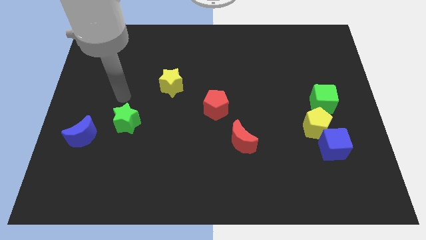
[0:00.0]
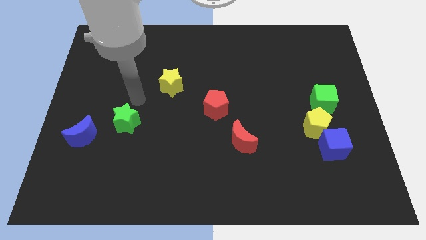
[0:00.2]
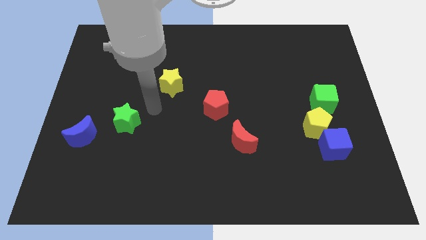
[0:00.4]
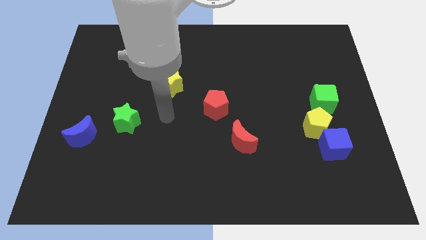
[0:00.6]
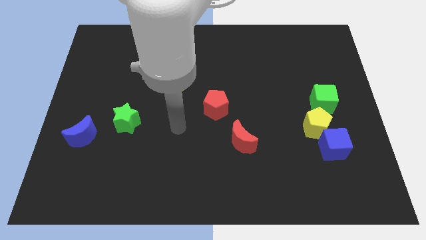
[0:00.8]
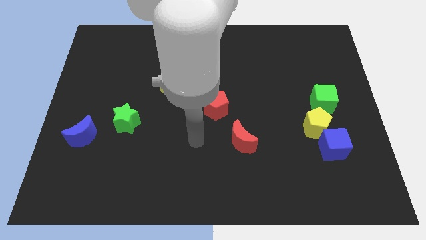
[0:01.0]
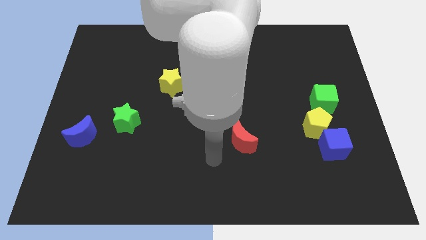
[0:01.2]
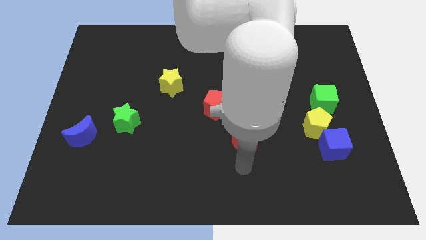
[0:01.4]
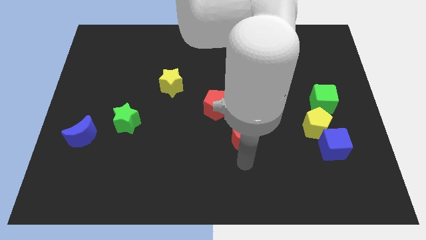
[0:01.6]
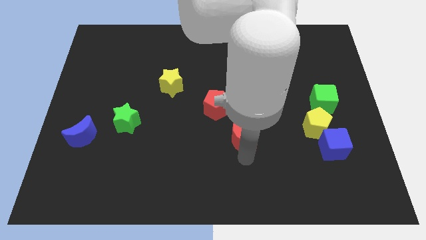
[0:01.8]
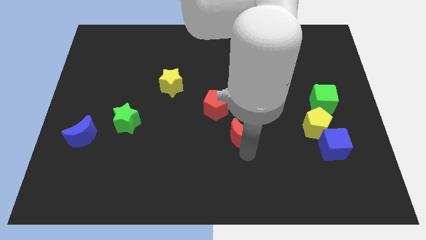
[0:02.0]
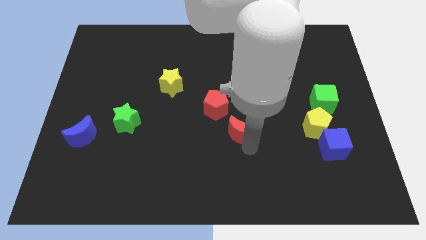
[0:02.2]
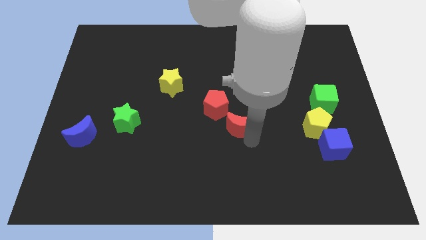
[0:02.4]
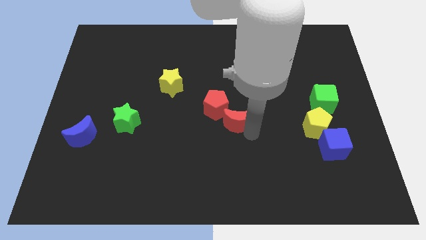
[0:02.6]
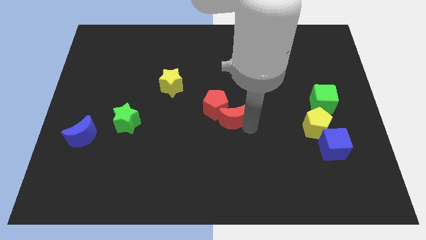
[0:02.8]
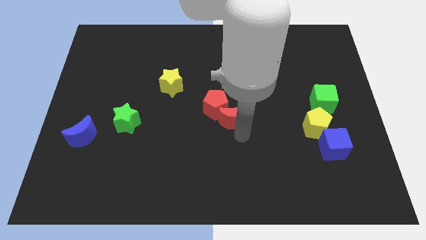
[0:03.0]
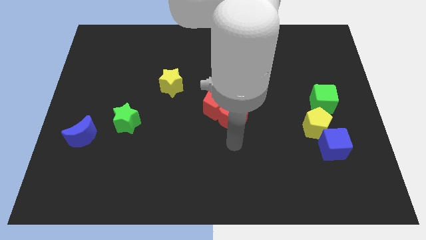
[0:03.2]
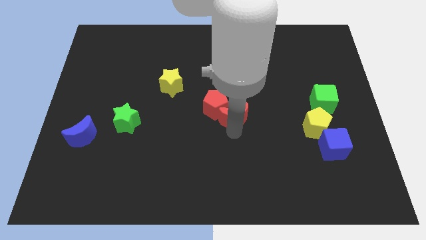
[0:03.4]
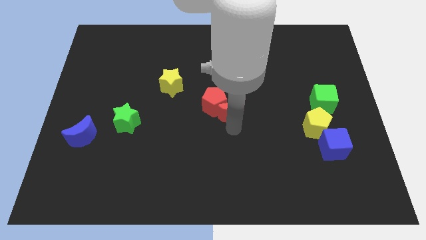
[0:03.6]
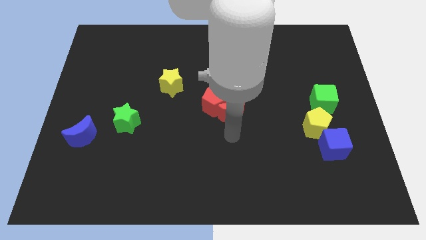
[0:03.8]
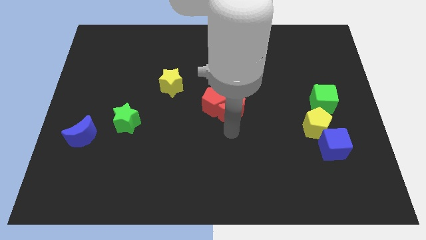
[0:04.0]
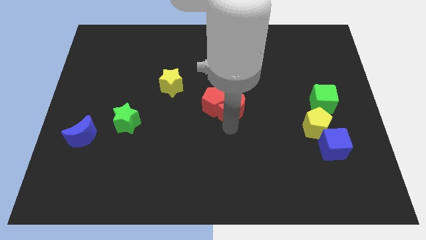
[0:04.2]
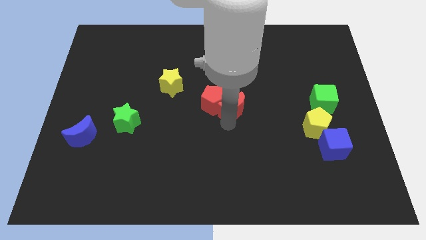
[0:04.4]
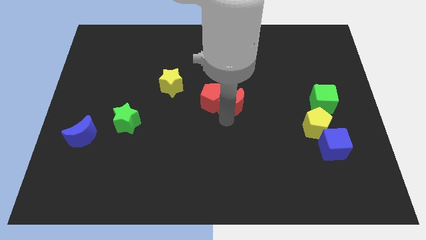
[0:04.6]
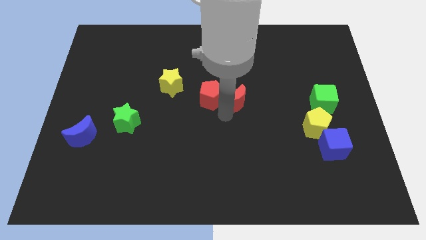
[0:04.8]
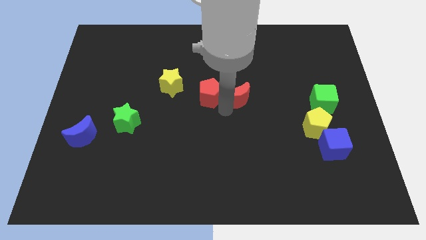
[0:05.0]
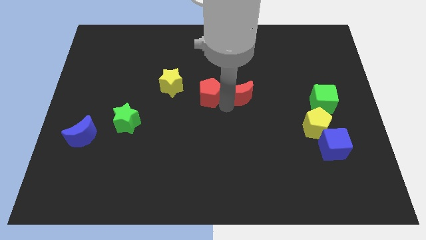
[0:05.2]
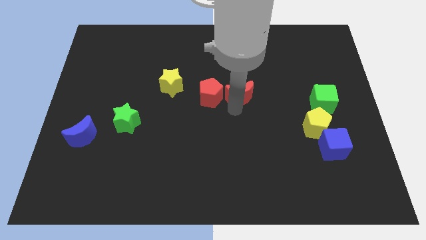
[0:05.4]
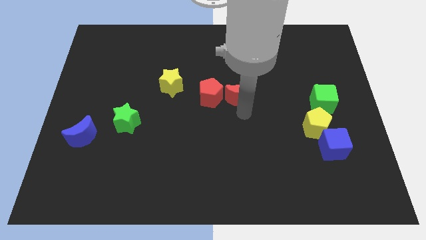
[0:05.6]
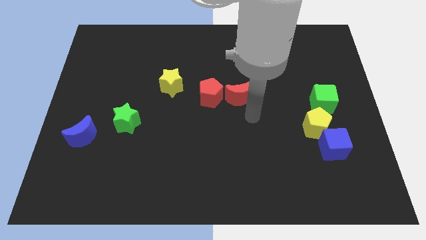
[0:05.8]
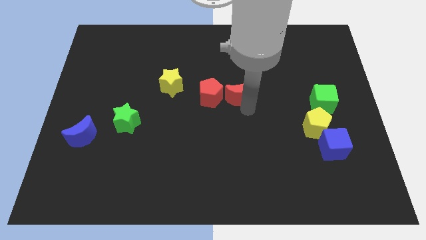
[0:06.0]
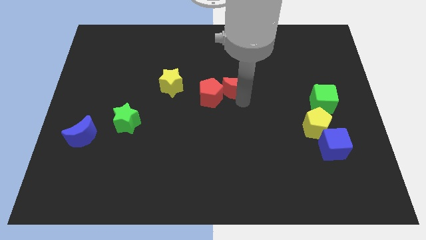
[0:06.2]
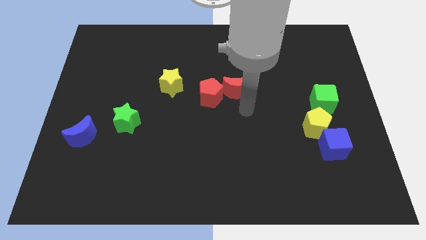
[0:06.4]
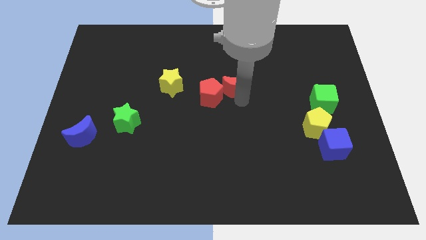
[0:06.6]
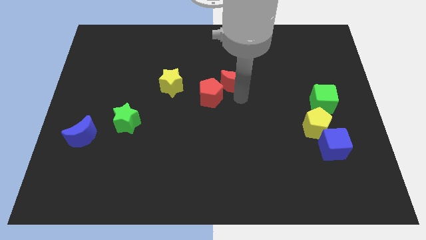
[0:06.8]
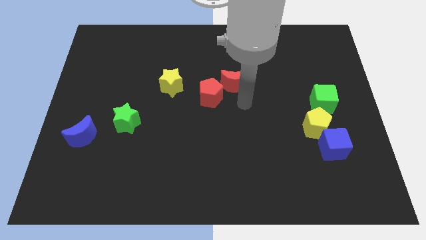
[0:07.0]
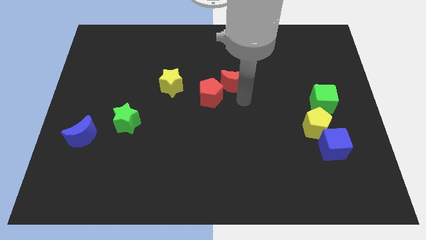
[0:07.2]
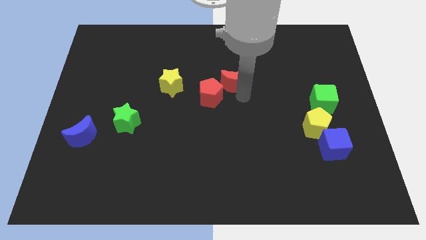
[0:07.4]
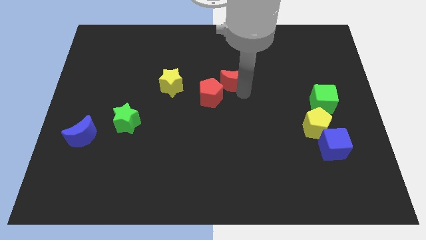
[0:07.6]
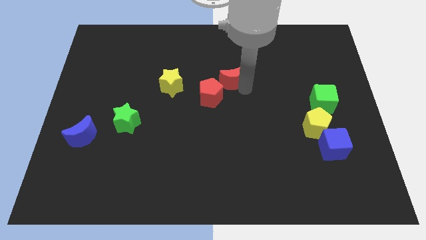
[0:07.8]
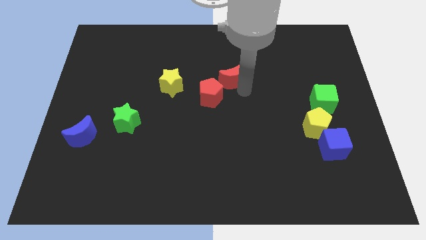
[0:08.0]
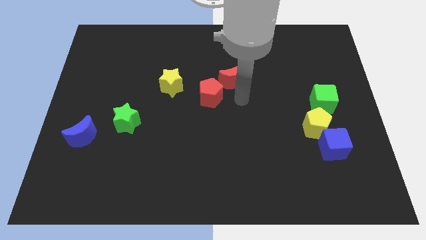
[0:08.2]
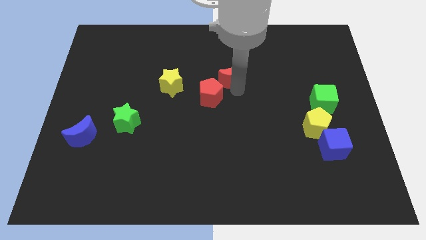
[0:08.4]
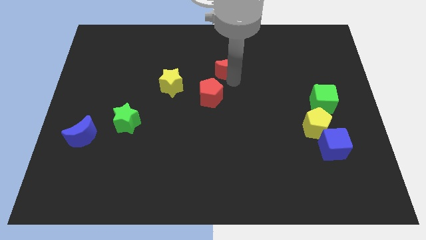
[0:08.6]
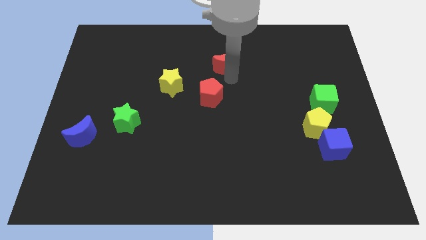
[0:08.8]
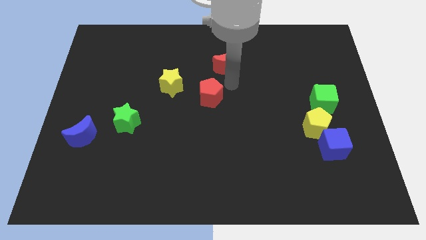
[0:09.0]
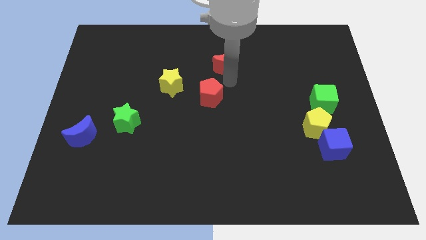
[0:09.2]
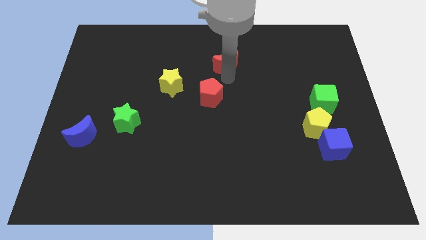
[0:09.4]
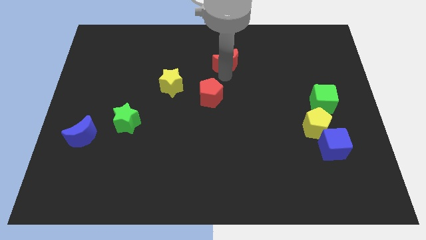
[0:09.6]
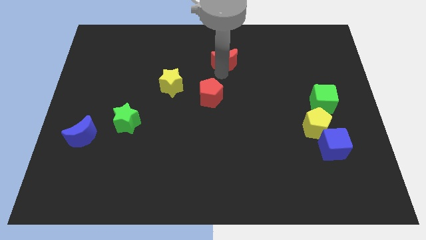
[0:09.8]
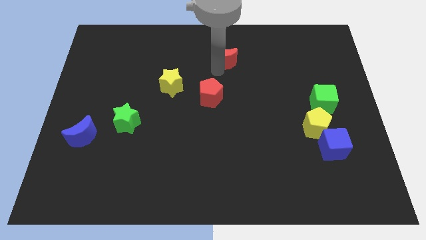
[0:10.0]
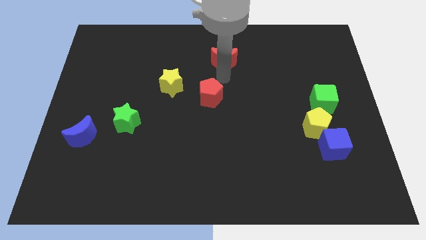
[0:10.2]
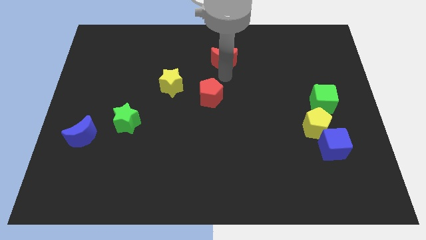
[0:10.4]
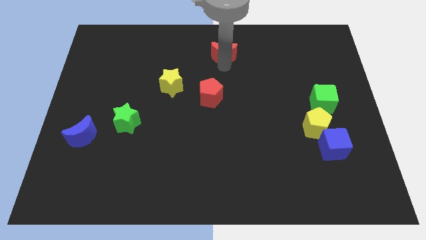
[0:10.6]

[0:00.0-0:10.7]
put the red moon to the towards your base
